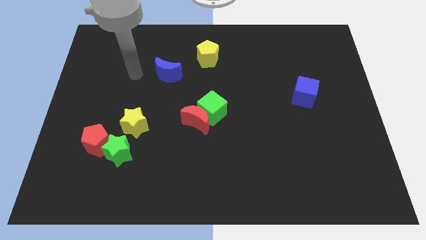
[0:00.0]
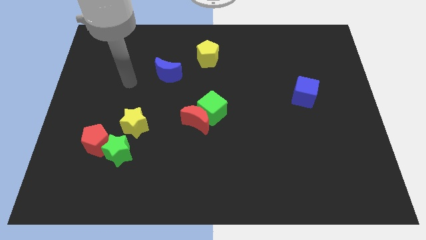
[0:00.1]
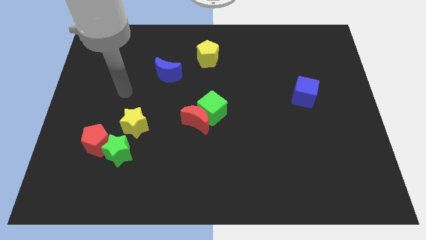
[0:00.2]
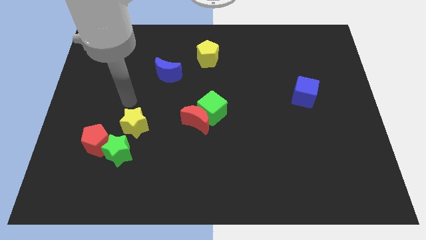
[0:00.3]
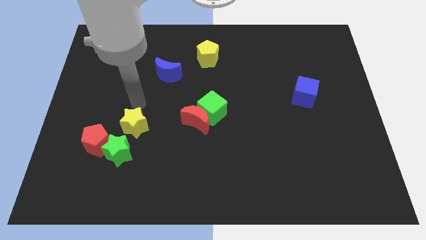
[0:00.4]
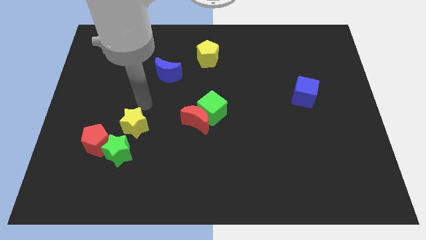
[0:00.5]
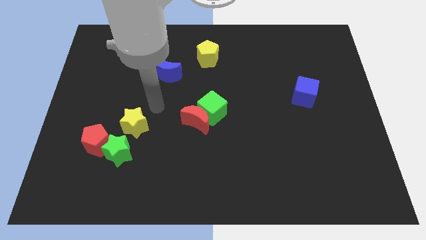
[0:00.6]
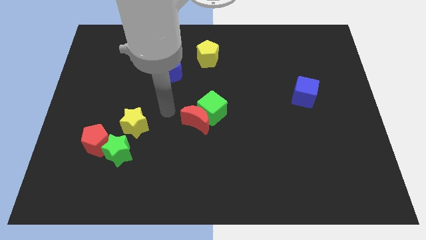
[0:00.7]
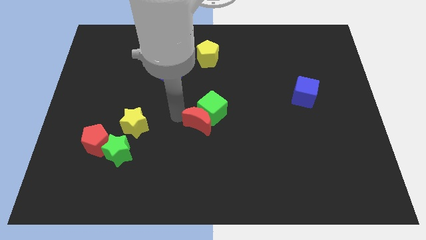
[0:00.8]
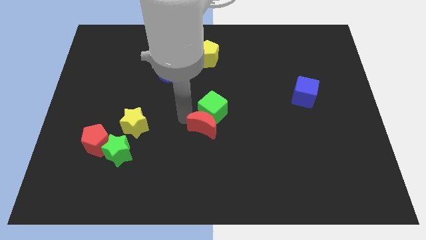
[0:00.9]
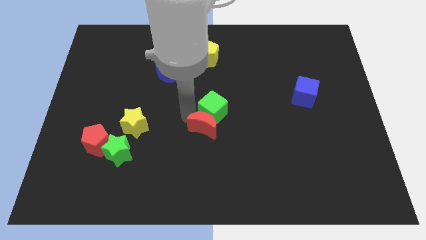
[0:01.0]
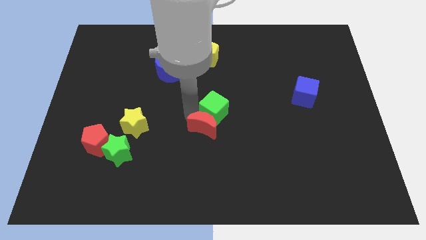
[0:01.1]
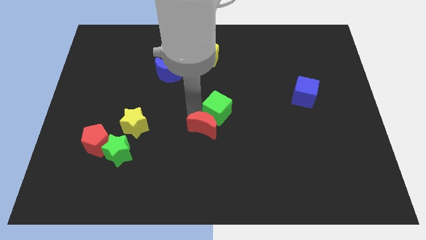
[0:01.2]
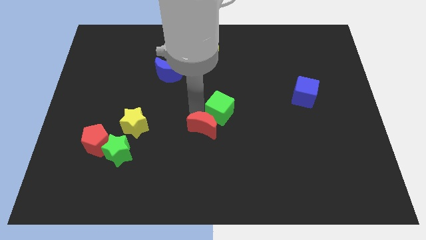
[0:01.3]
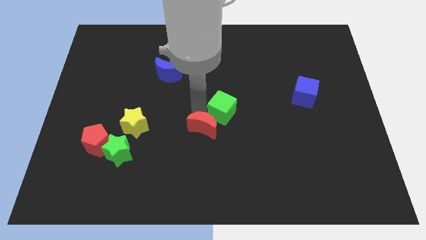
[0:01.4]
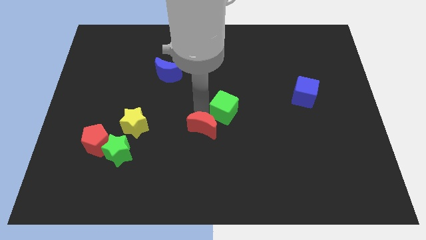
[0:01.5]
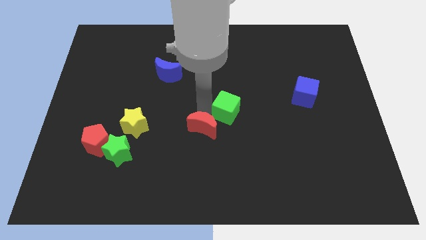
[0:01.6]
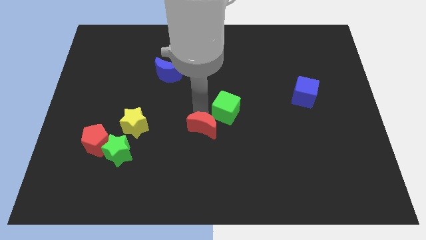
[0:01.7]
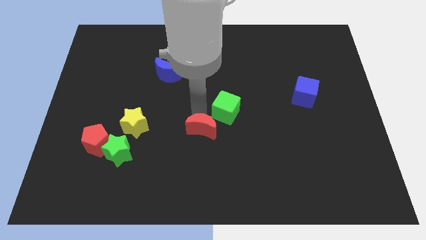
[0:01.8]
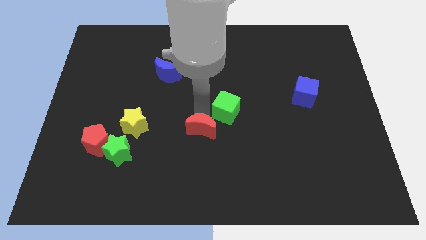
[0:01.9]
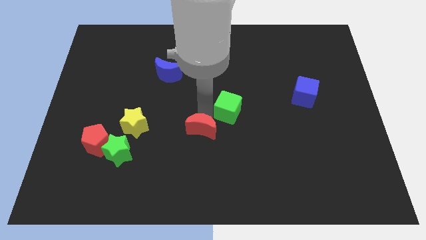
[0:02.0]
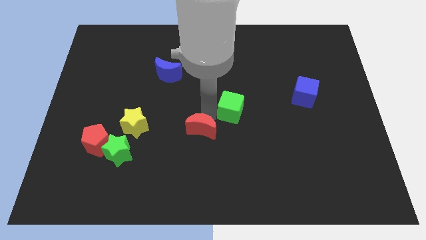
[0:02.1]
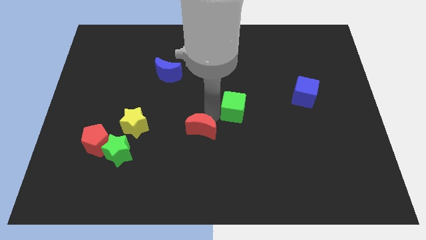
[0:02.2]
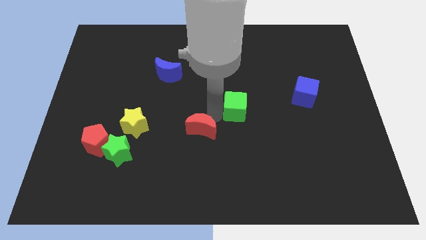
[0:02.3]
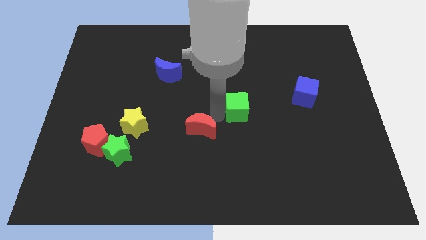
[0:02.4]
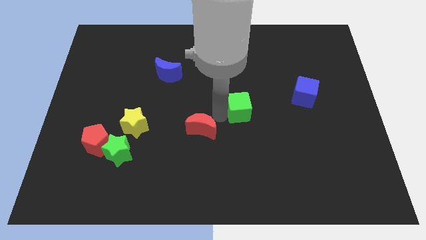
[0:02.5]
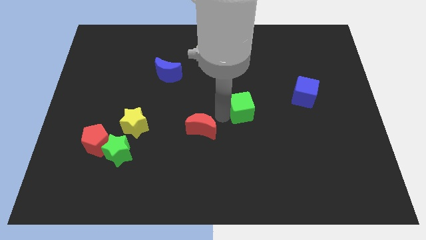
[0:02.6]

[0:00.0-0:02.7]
slide the green cube a little to the right

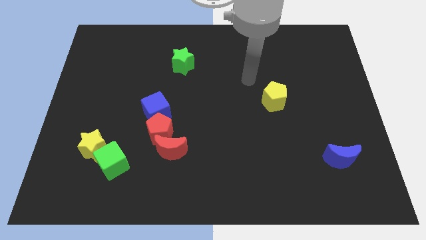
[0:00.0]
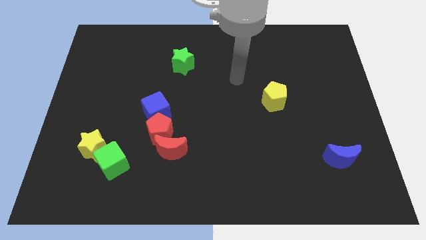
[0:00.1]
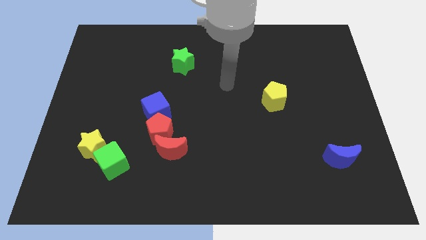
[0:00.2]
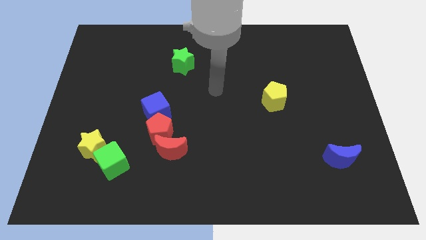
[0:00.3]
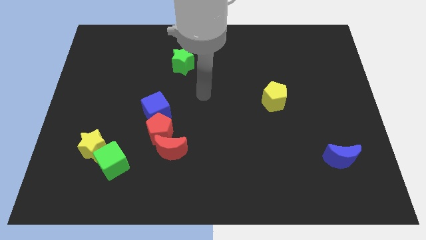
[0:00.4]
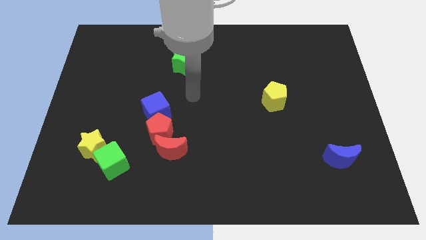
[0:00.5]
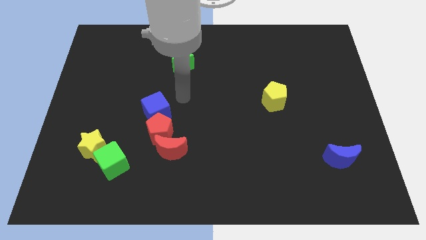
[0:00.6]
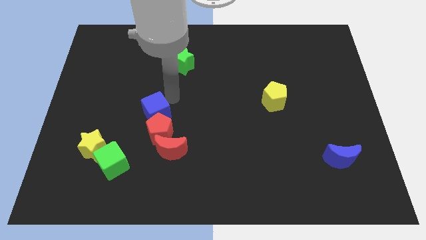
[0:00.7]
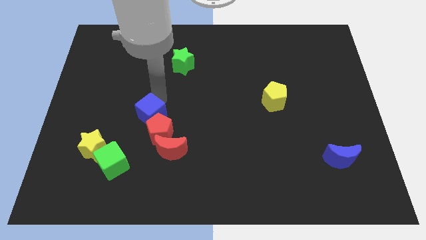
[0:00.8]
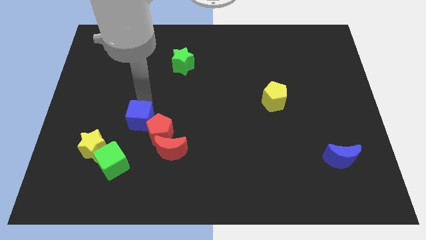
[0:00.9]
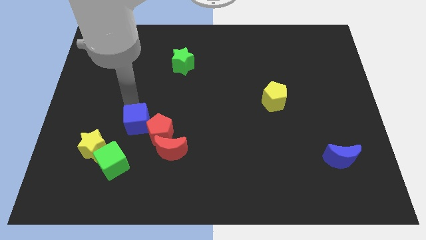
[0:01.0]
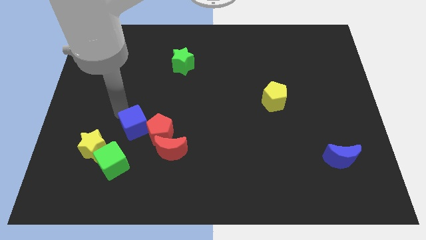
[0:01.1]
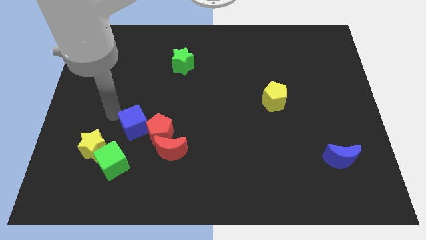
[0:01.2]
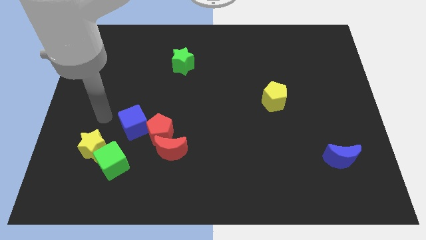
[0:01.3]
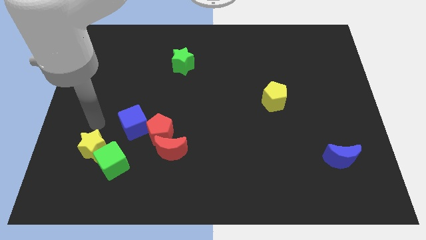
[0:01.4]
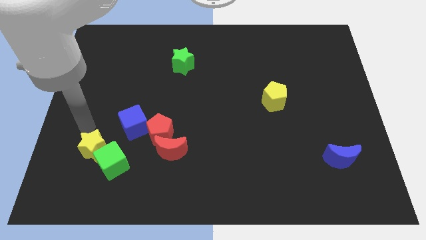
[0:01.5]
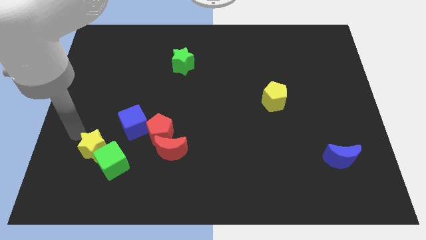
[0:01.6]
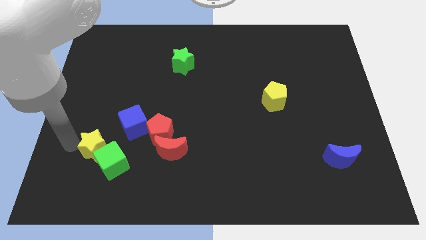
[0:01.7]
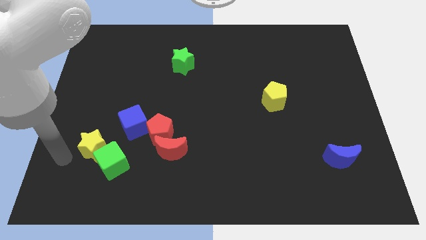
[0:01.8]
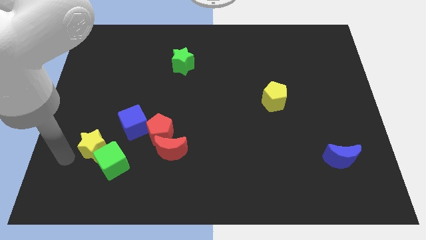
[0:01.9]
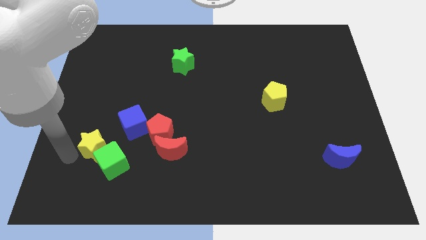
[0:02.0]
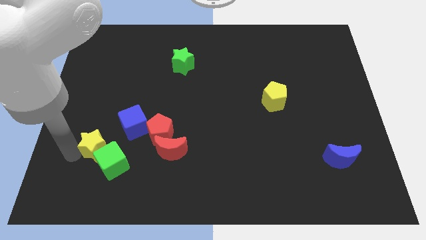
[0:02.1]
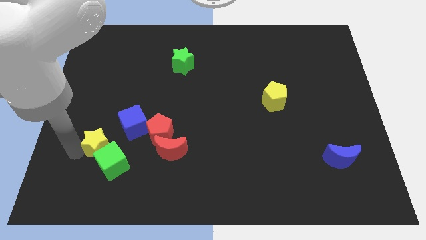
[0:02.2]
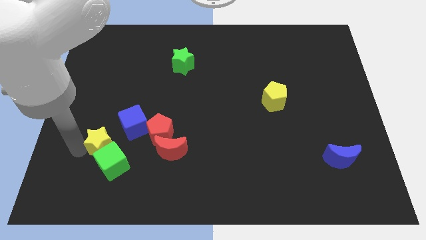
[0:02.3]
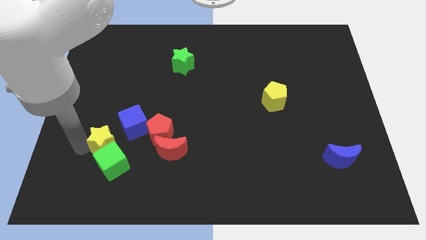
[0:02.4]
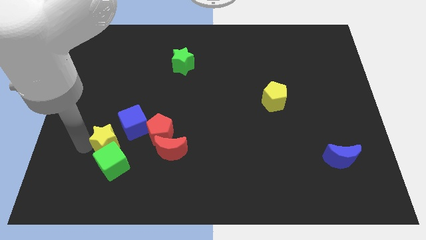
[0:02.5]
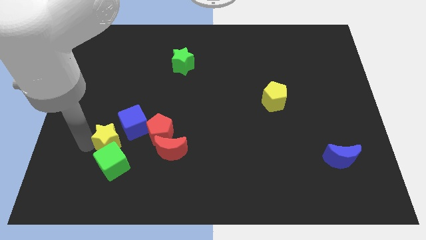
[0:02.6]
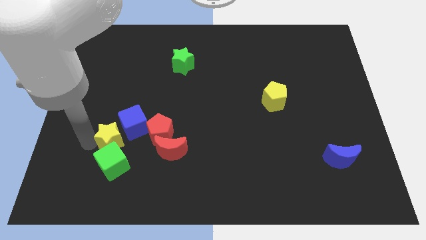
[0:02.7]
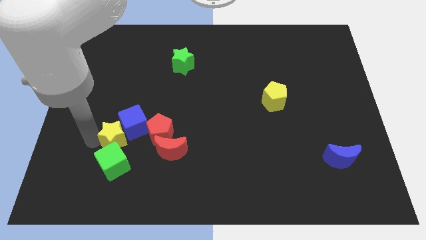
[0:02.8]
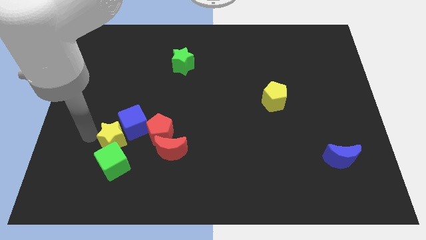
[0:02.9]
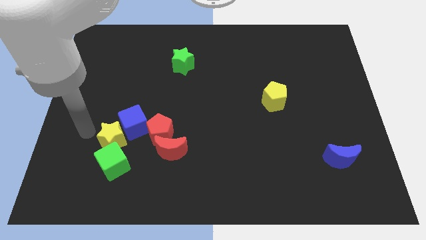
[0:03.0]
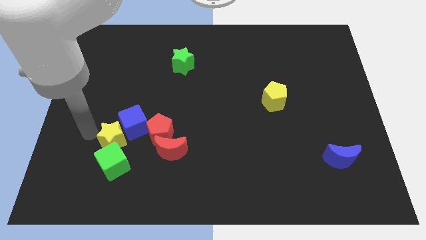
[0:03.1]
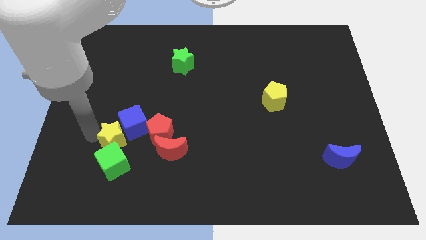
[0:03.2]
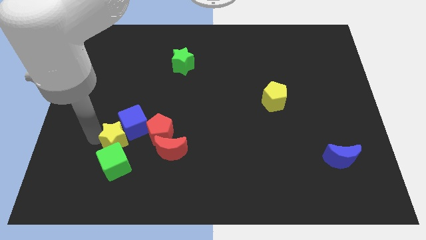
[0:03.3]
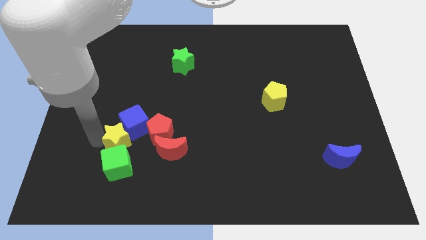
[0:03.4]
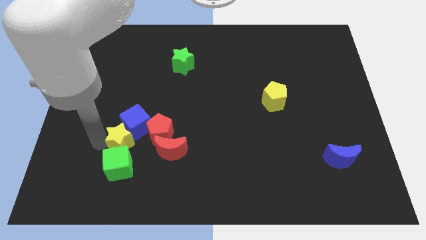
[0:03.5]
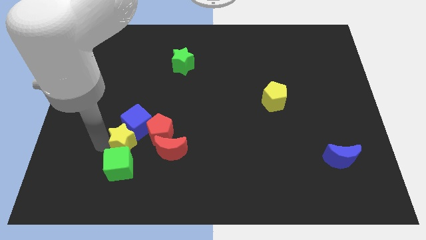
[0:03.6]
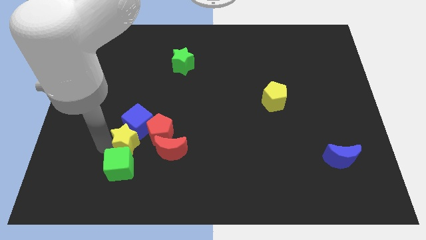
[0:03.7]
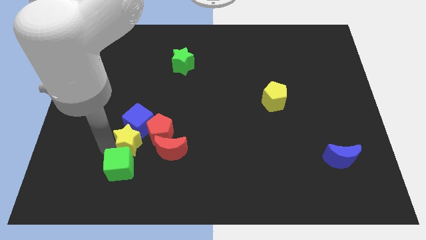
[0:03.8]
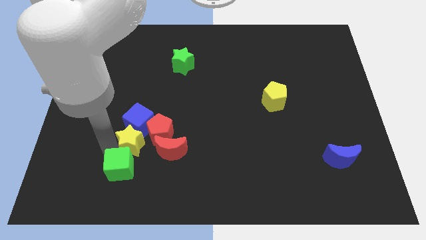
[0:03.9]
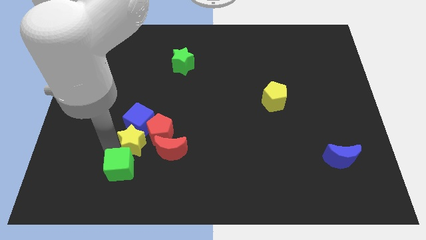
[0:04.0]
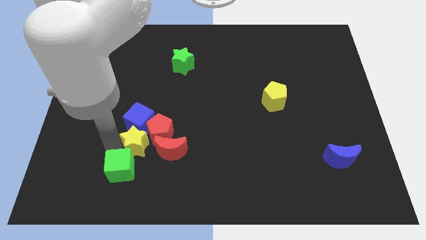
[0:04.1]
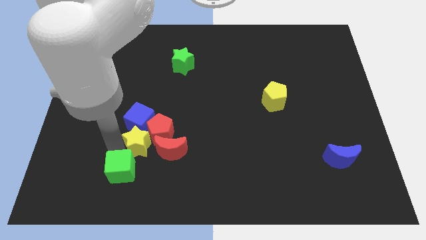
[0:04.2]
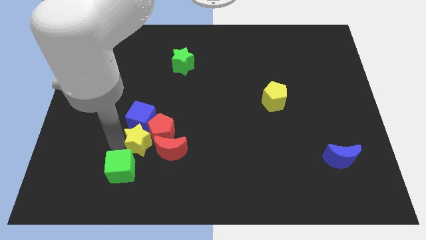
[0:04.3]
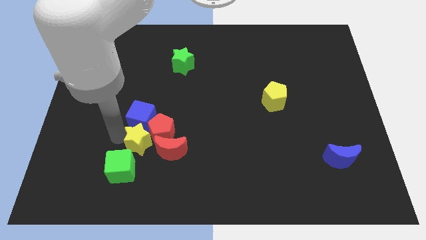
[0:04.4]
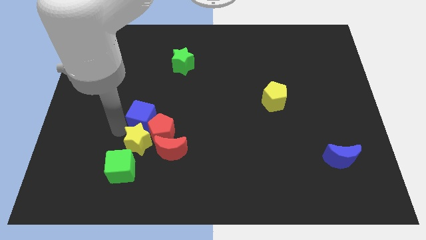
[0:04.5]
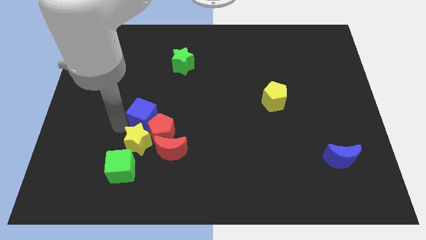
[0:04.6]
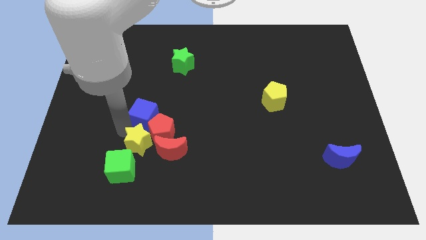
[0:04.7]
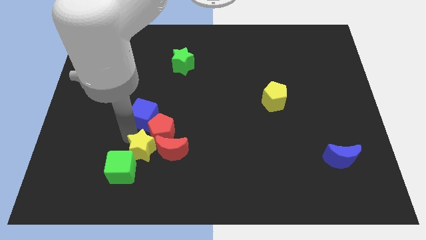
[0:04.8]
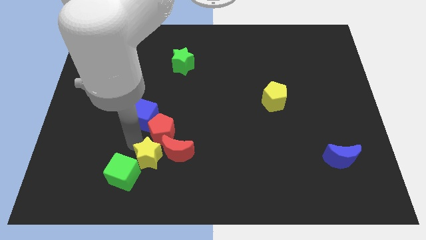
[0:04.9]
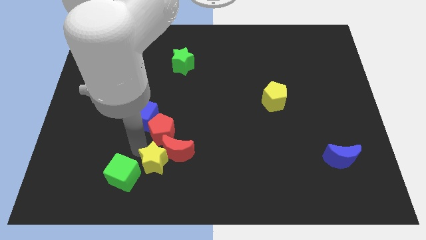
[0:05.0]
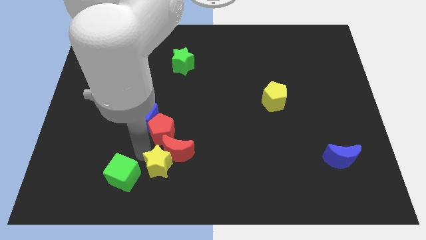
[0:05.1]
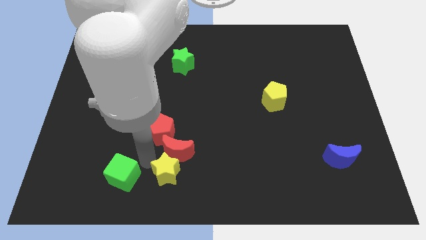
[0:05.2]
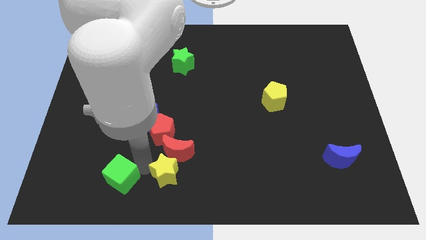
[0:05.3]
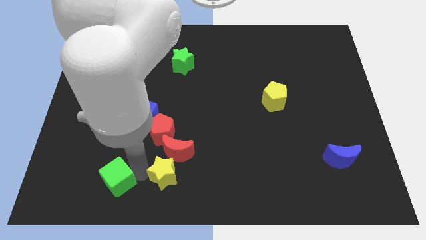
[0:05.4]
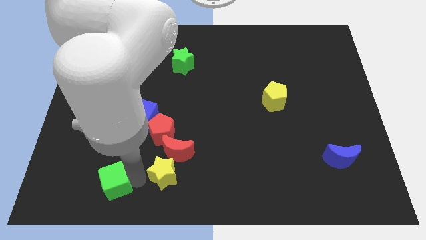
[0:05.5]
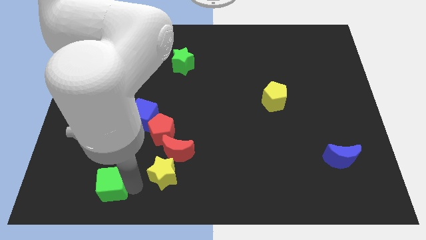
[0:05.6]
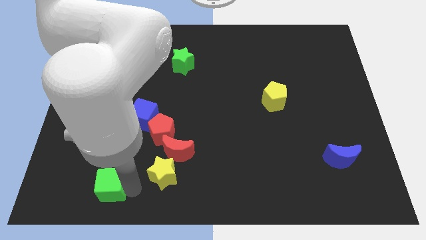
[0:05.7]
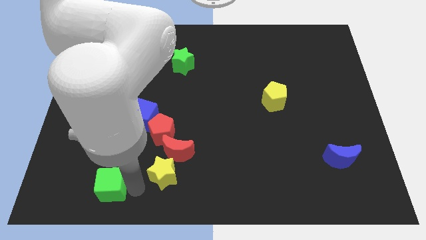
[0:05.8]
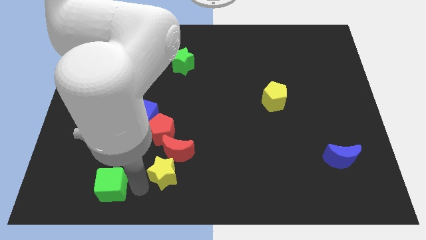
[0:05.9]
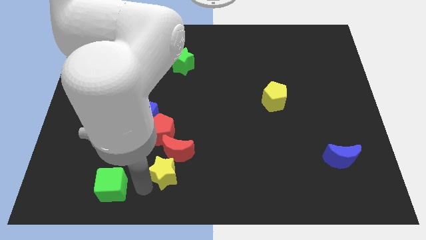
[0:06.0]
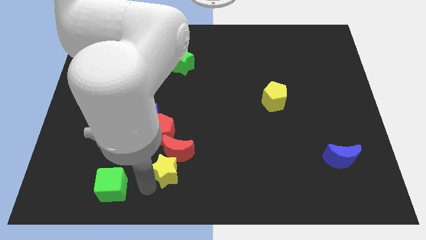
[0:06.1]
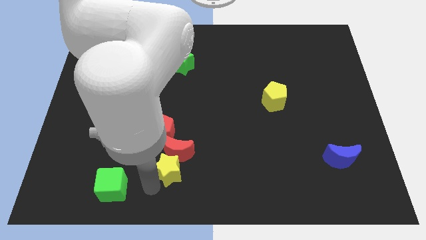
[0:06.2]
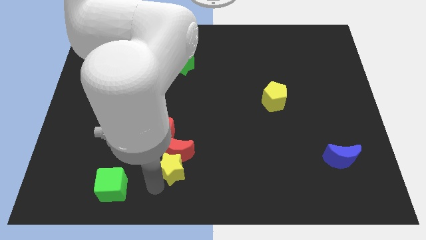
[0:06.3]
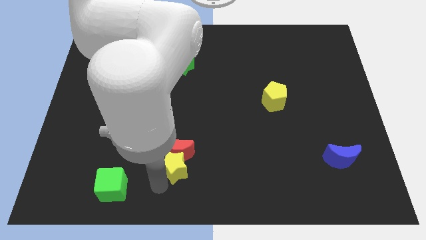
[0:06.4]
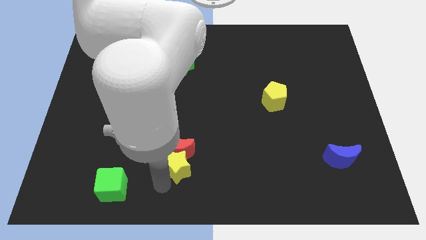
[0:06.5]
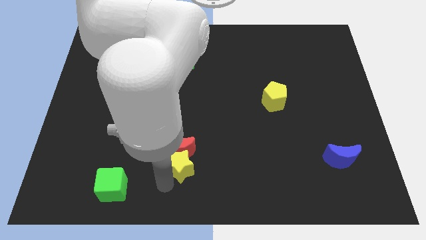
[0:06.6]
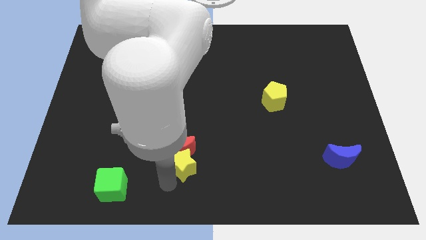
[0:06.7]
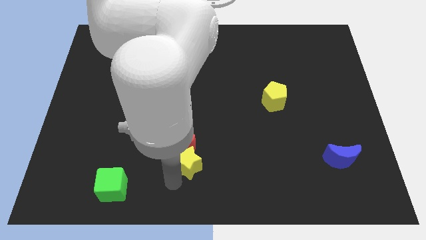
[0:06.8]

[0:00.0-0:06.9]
push the yellow star to the right
